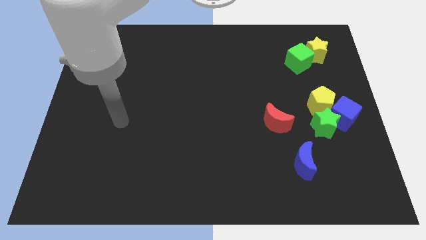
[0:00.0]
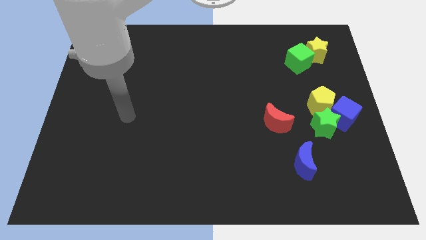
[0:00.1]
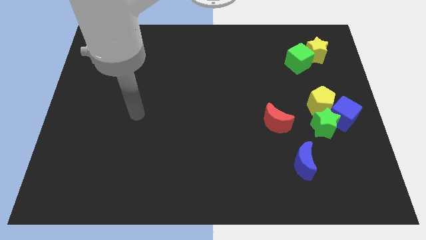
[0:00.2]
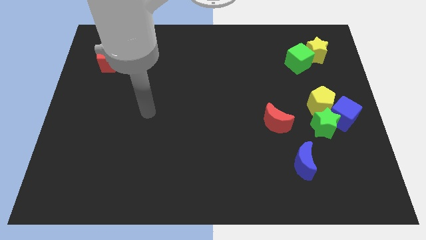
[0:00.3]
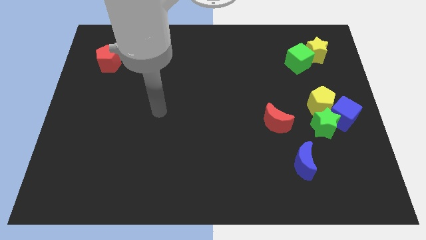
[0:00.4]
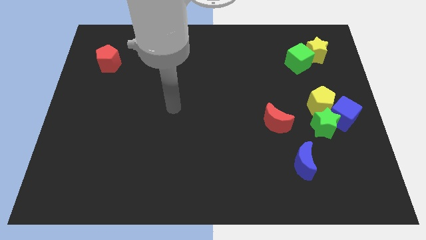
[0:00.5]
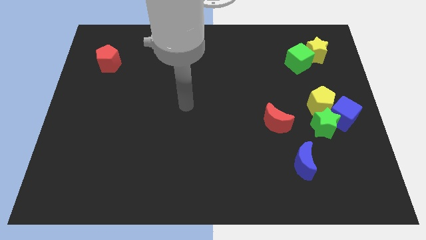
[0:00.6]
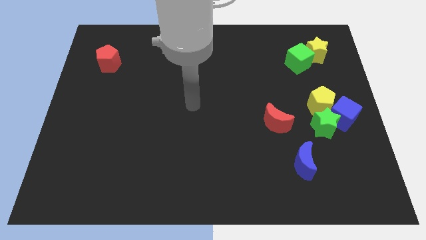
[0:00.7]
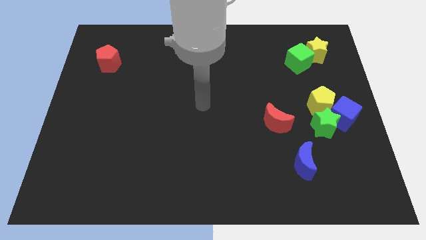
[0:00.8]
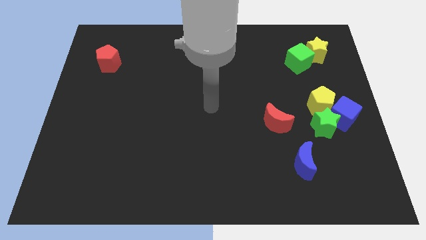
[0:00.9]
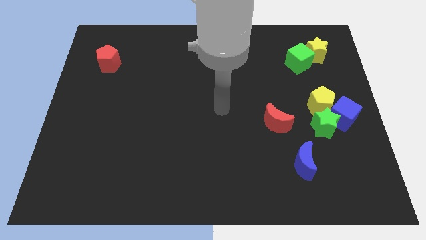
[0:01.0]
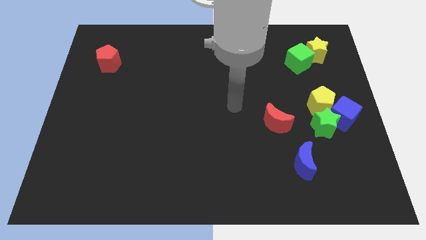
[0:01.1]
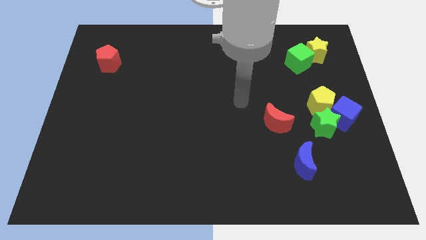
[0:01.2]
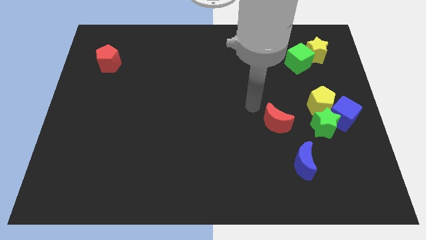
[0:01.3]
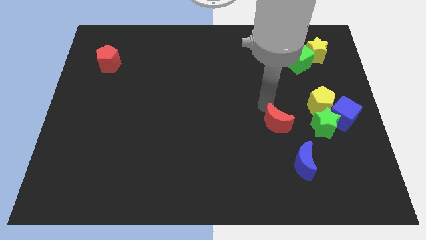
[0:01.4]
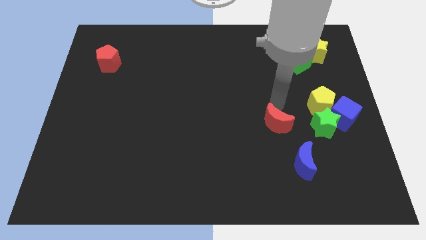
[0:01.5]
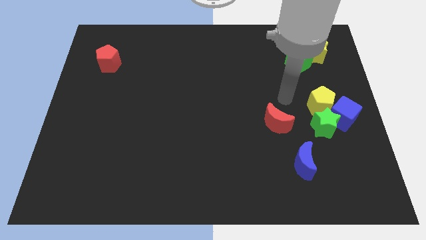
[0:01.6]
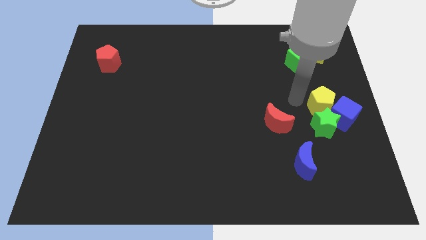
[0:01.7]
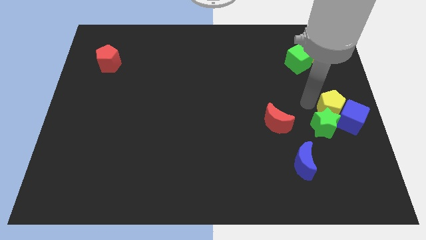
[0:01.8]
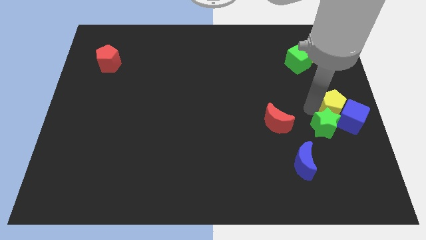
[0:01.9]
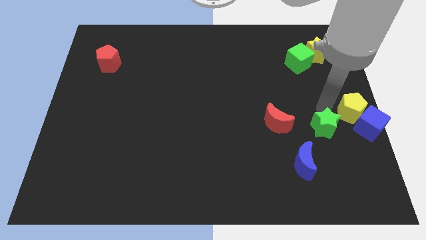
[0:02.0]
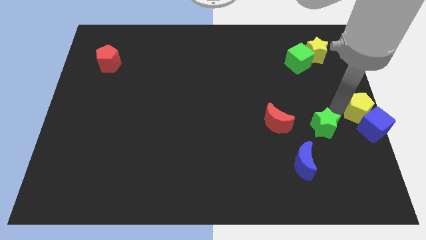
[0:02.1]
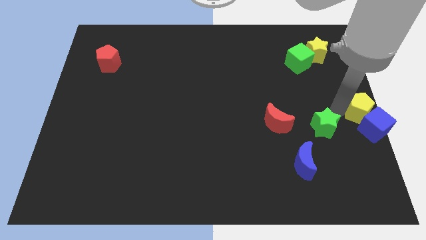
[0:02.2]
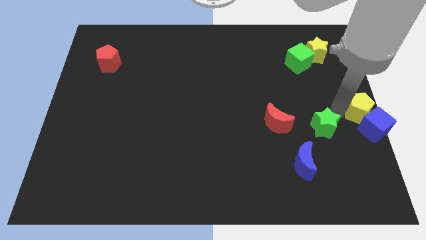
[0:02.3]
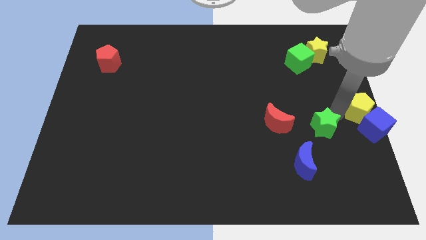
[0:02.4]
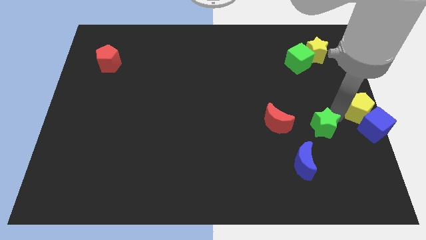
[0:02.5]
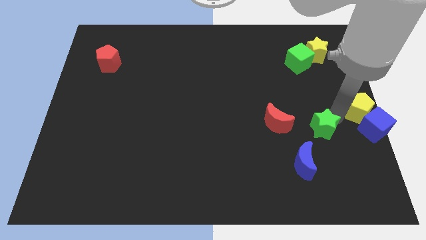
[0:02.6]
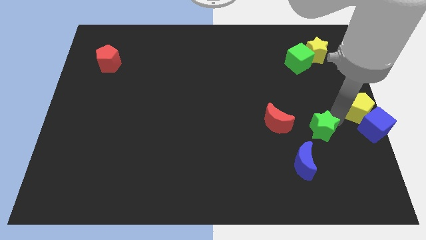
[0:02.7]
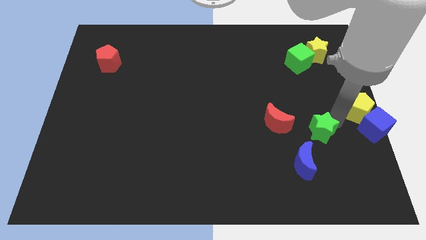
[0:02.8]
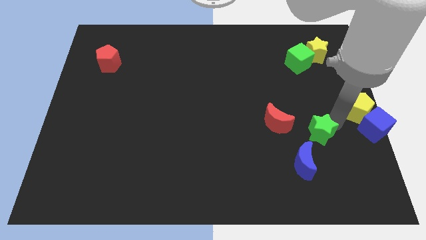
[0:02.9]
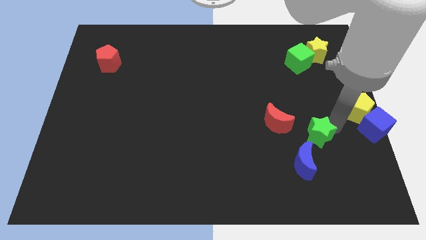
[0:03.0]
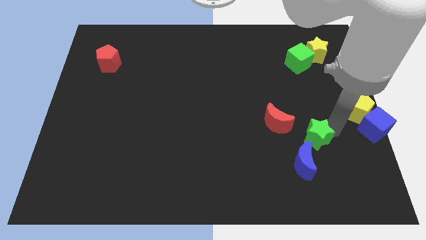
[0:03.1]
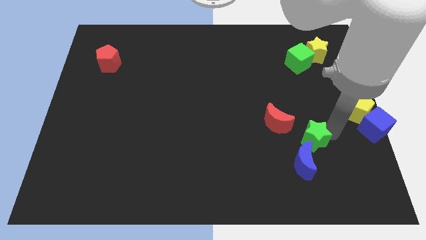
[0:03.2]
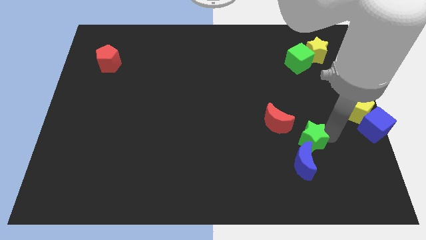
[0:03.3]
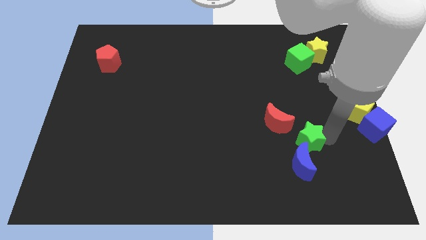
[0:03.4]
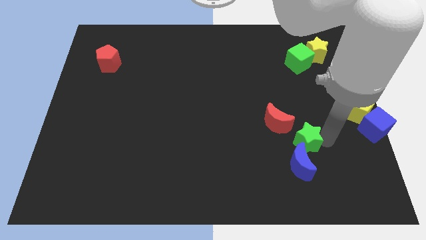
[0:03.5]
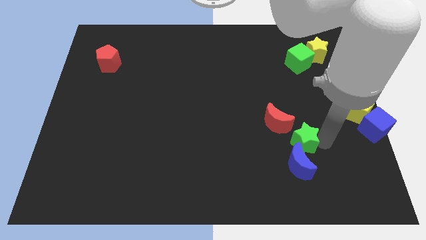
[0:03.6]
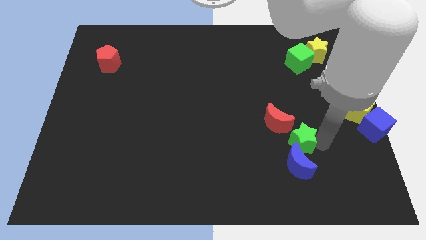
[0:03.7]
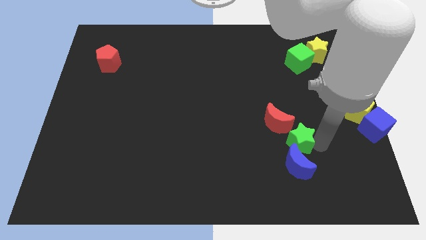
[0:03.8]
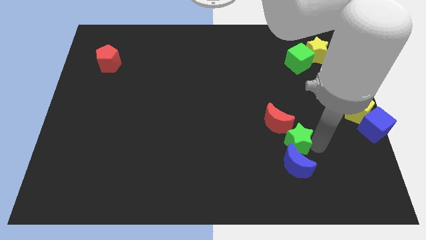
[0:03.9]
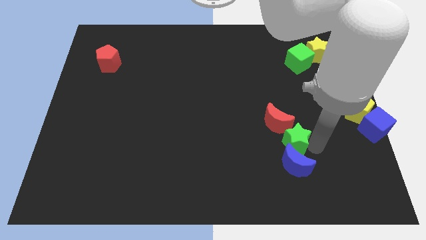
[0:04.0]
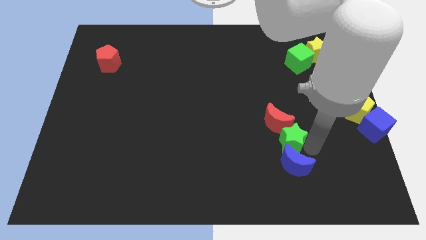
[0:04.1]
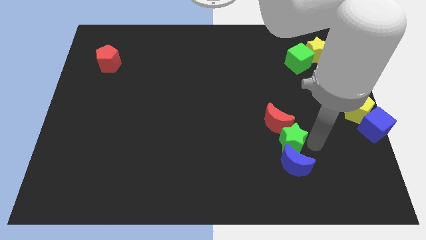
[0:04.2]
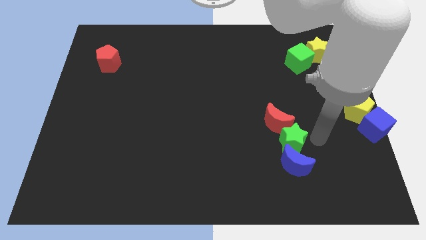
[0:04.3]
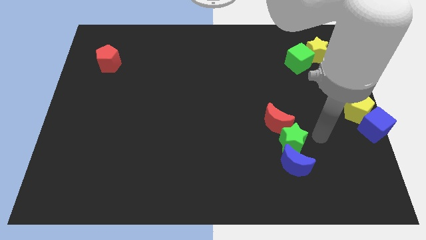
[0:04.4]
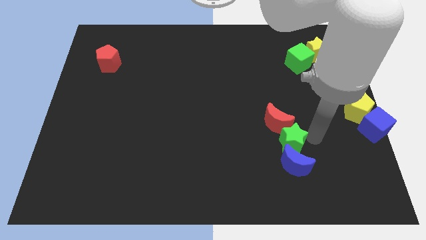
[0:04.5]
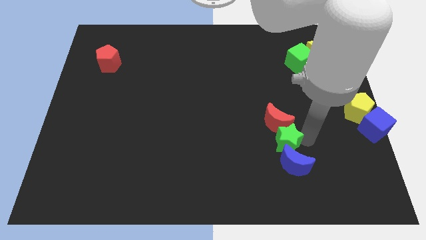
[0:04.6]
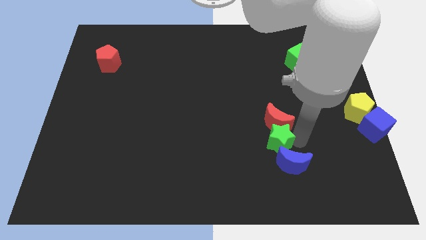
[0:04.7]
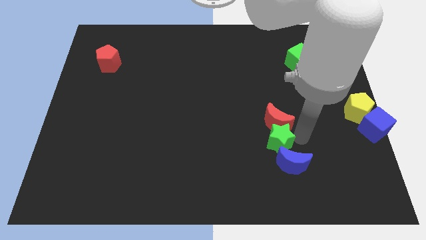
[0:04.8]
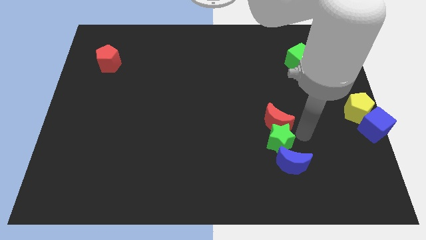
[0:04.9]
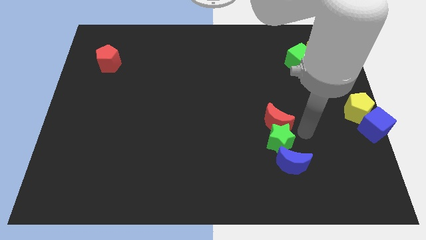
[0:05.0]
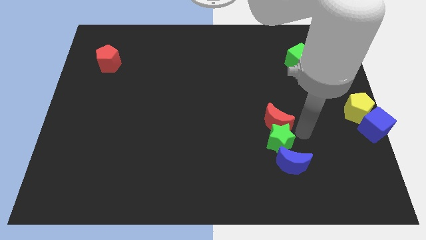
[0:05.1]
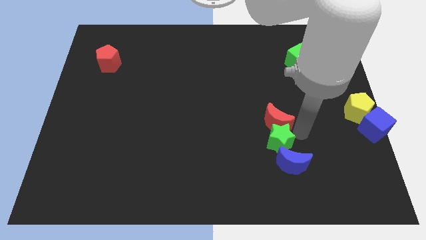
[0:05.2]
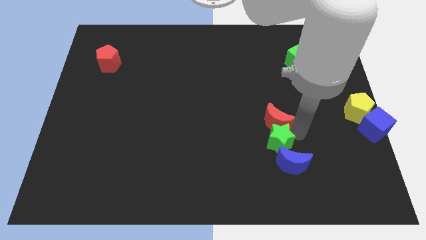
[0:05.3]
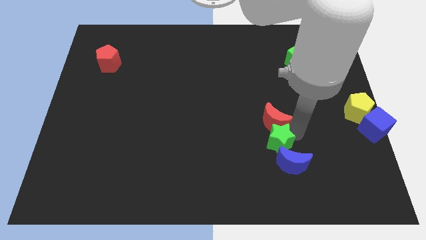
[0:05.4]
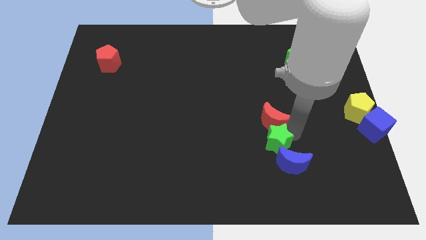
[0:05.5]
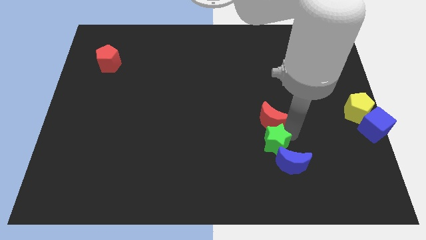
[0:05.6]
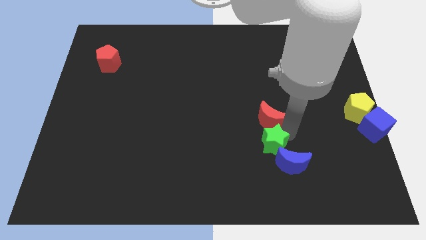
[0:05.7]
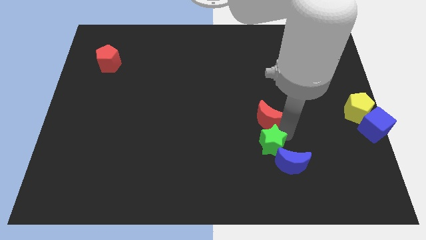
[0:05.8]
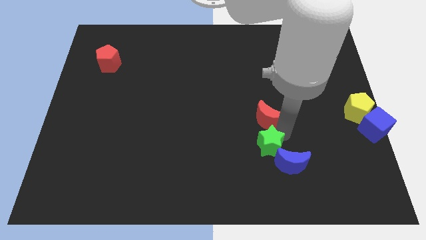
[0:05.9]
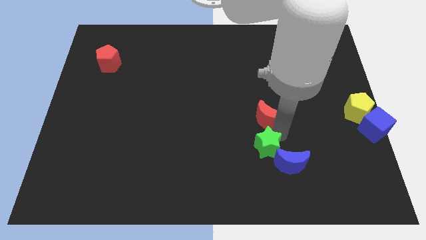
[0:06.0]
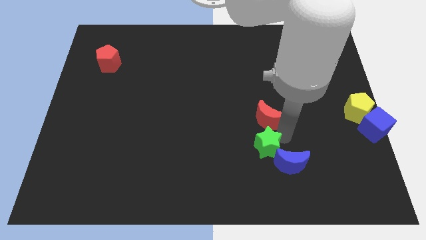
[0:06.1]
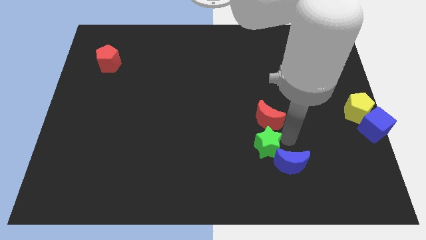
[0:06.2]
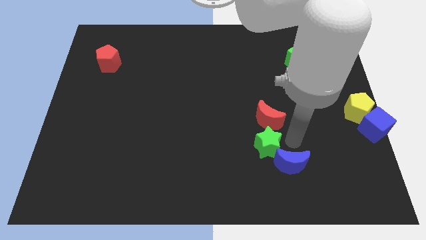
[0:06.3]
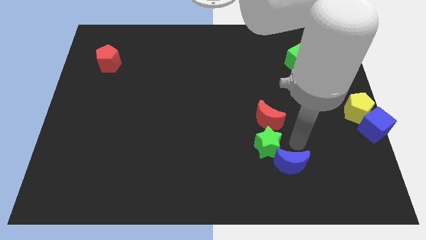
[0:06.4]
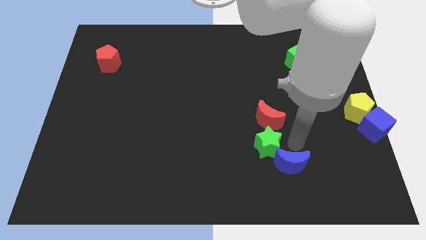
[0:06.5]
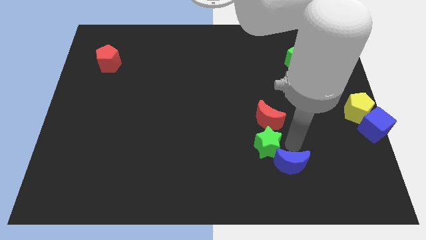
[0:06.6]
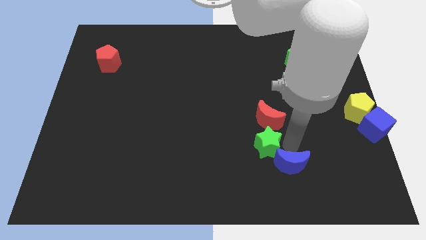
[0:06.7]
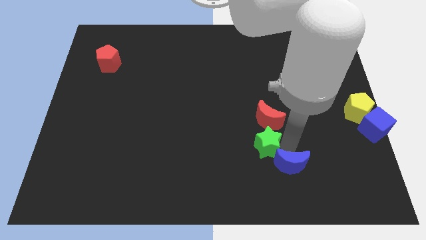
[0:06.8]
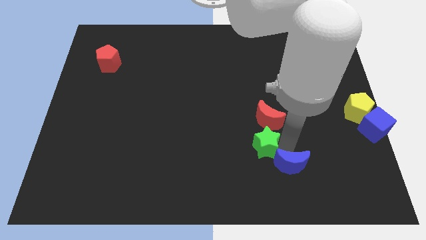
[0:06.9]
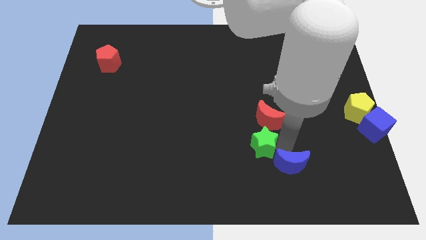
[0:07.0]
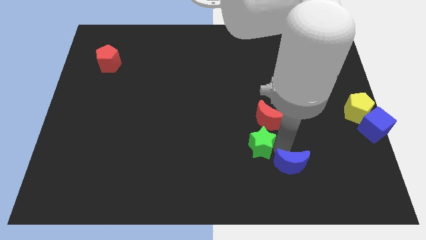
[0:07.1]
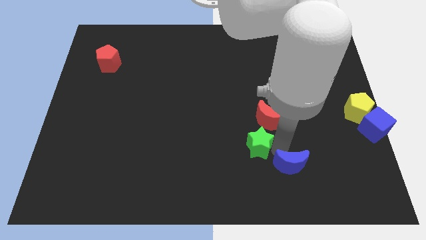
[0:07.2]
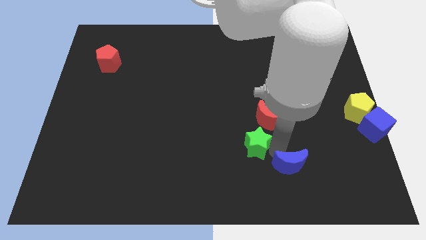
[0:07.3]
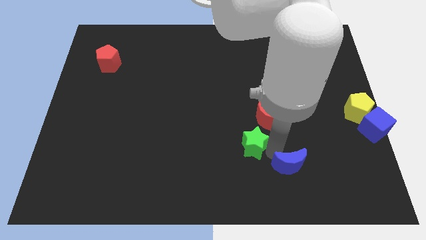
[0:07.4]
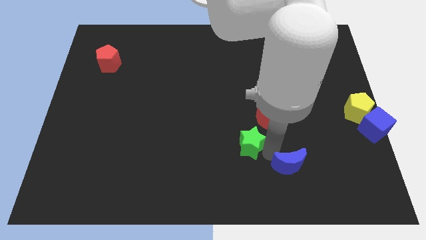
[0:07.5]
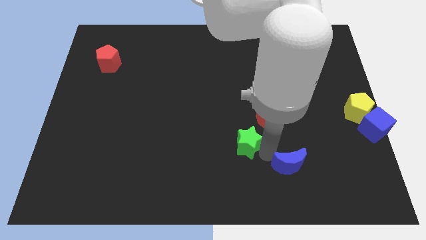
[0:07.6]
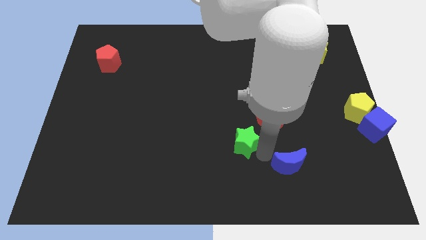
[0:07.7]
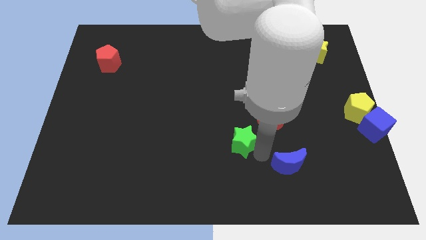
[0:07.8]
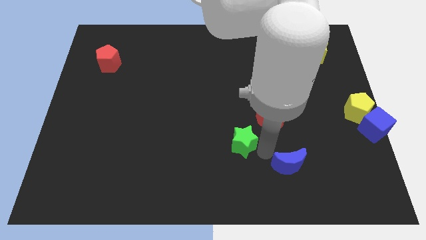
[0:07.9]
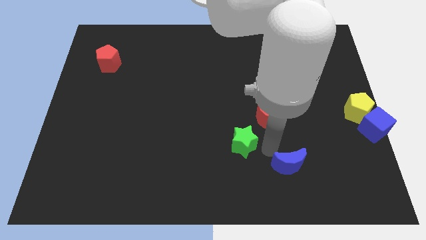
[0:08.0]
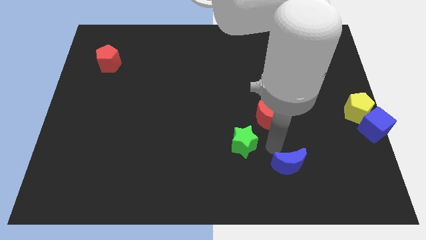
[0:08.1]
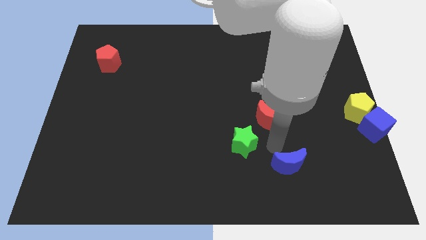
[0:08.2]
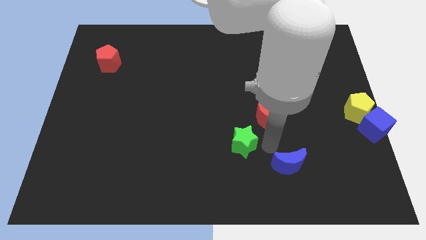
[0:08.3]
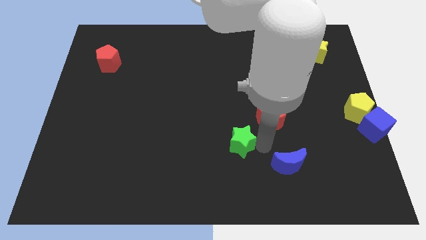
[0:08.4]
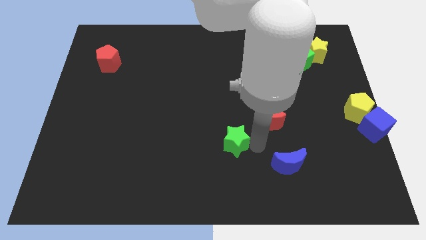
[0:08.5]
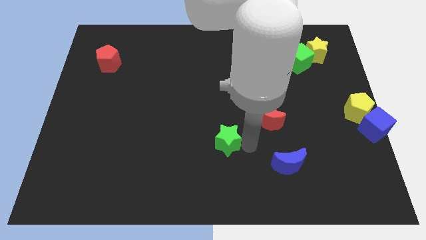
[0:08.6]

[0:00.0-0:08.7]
move the green star to the left
